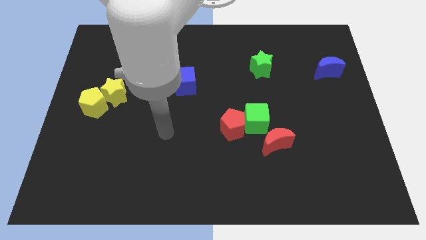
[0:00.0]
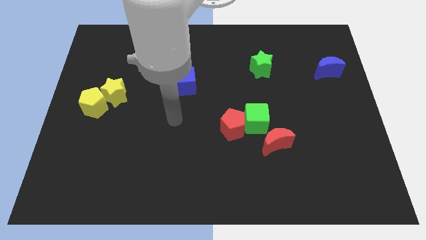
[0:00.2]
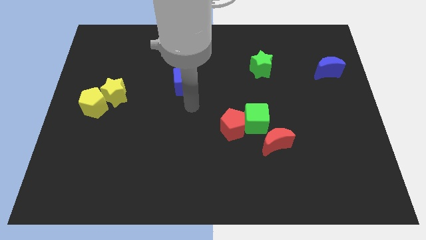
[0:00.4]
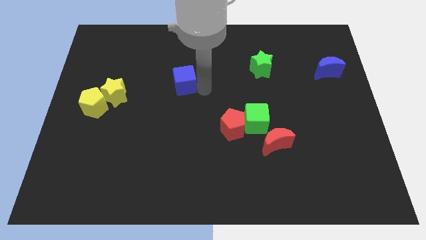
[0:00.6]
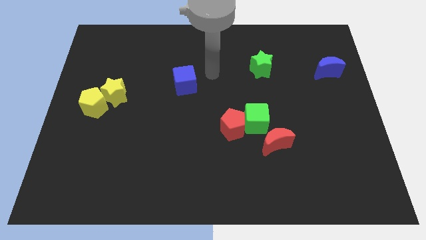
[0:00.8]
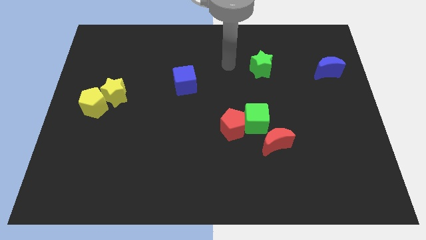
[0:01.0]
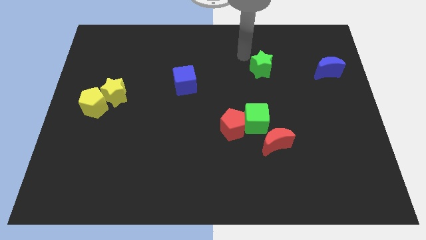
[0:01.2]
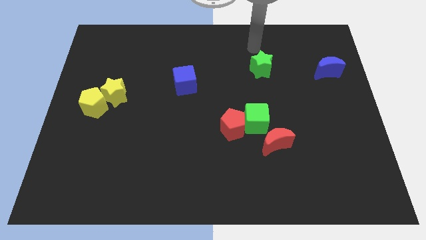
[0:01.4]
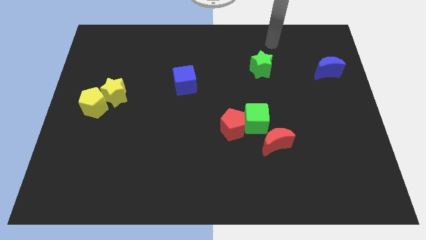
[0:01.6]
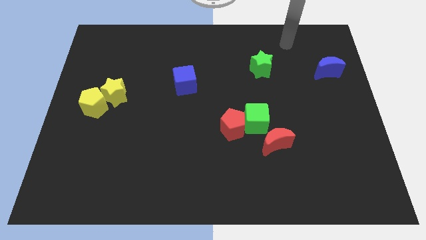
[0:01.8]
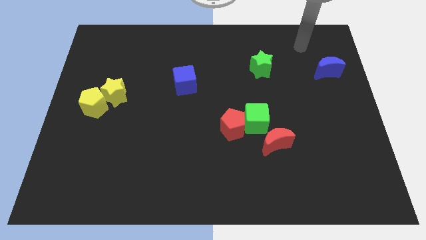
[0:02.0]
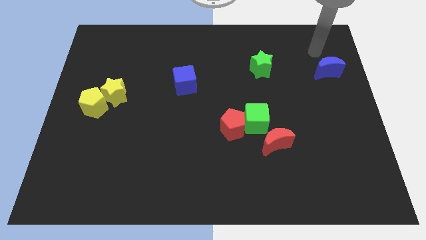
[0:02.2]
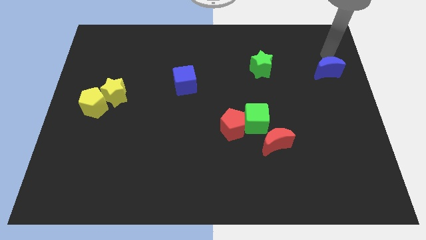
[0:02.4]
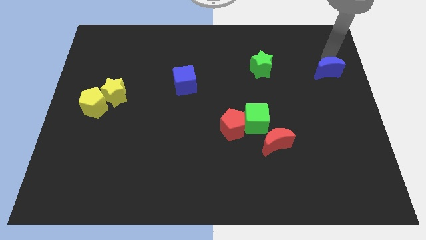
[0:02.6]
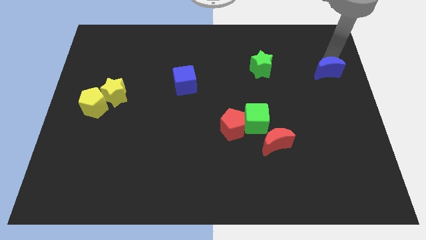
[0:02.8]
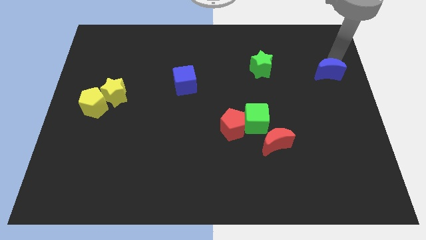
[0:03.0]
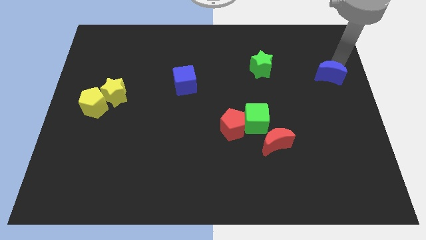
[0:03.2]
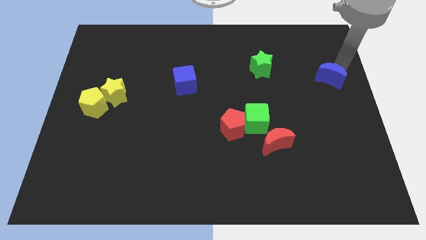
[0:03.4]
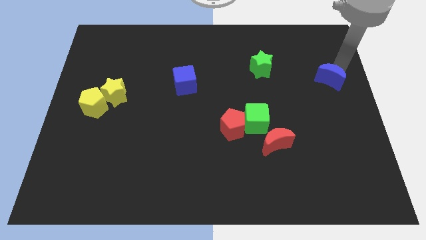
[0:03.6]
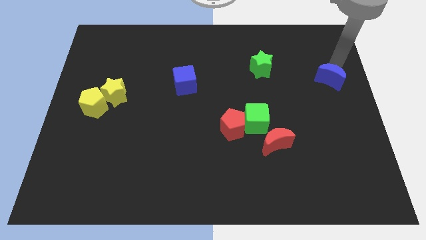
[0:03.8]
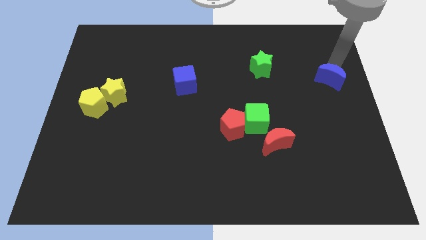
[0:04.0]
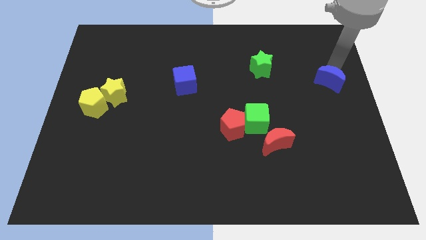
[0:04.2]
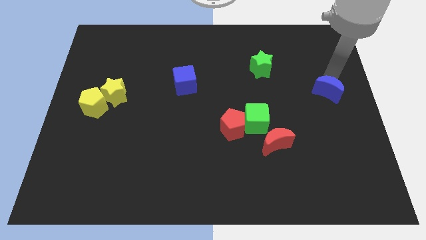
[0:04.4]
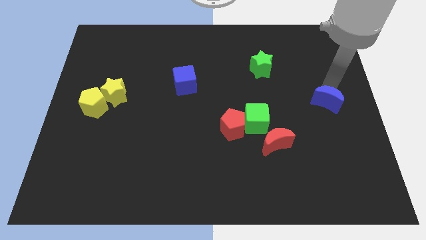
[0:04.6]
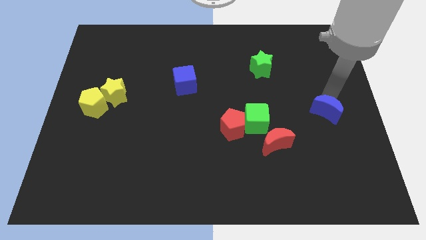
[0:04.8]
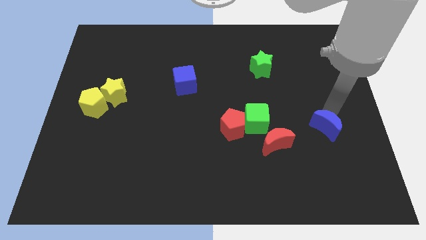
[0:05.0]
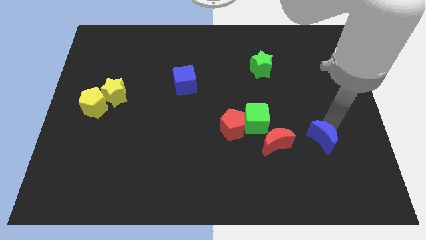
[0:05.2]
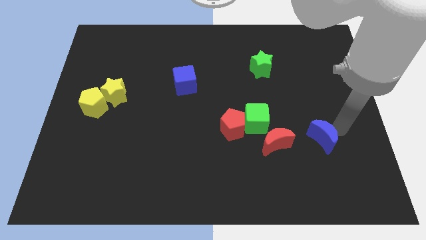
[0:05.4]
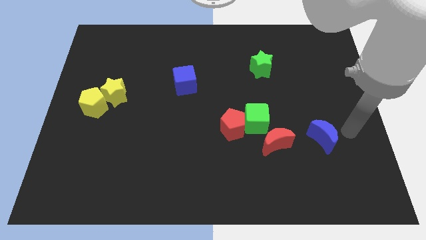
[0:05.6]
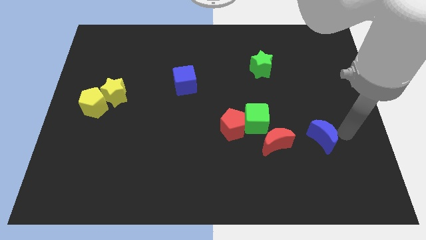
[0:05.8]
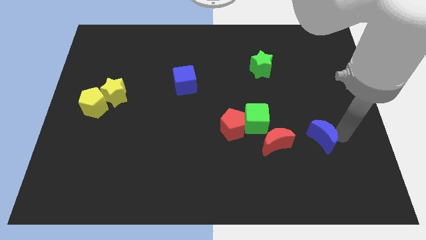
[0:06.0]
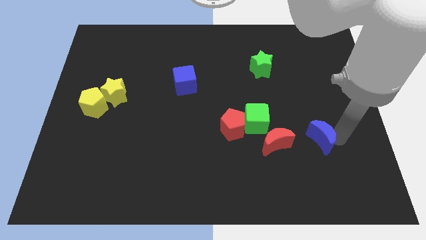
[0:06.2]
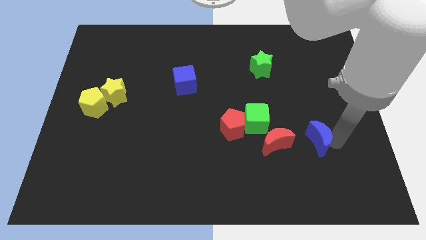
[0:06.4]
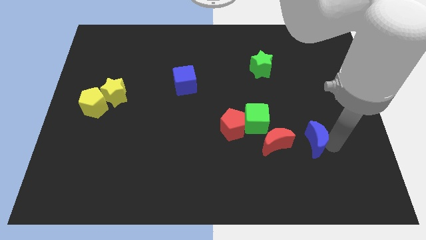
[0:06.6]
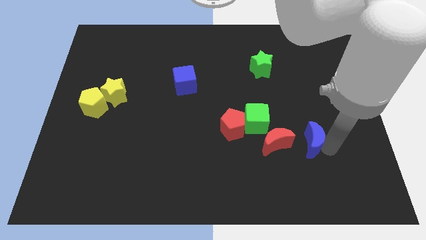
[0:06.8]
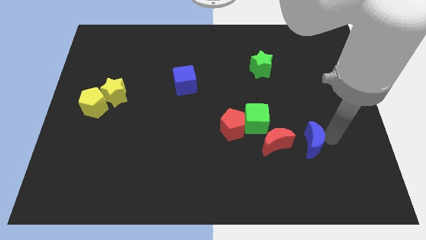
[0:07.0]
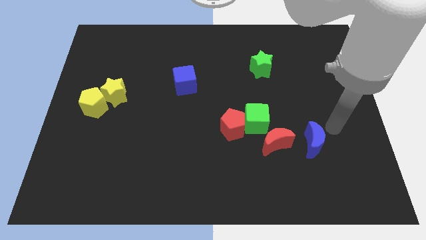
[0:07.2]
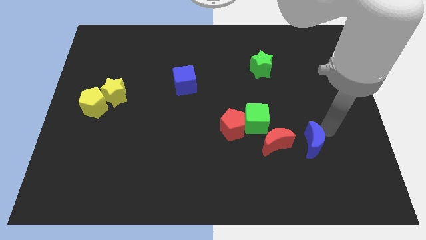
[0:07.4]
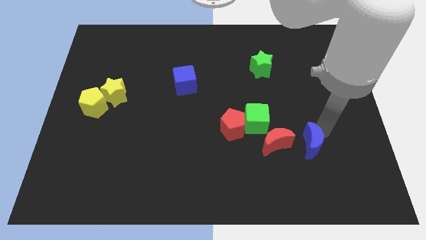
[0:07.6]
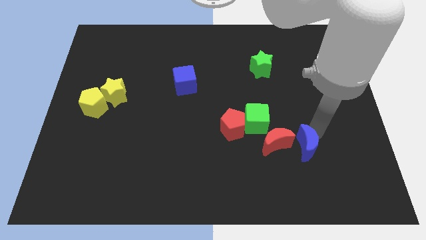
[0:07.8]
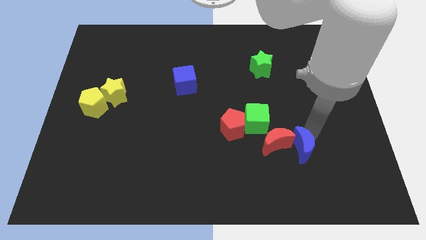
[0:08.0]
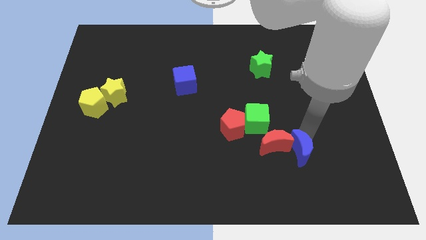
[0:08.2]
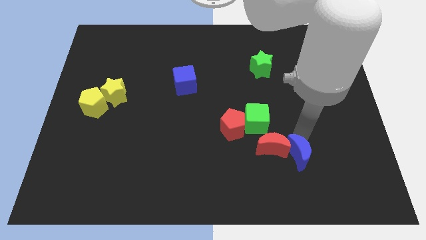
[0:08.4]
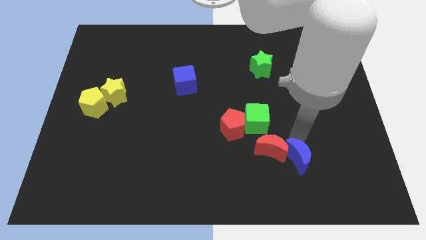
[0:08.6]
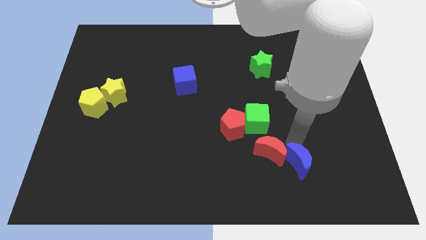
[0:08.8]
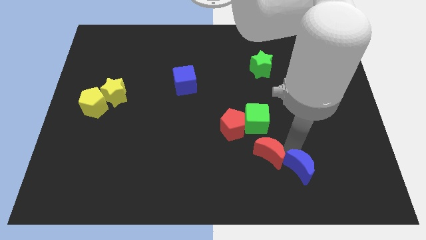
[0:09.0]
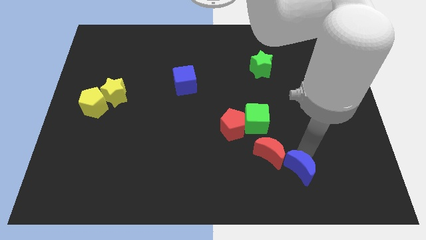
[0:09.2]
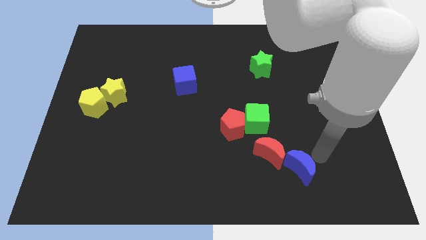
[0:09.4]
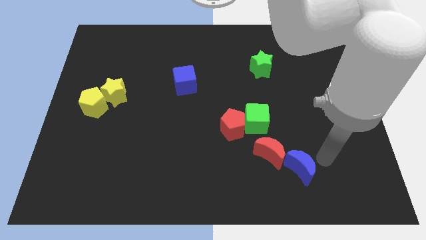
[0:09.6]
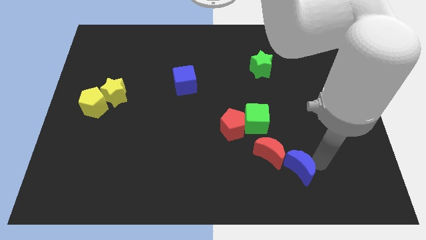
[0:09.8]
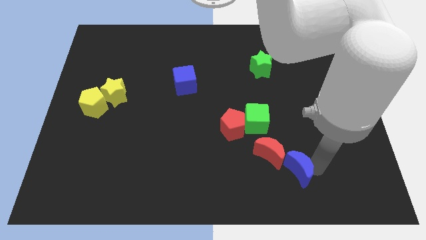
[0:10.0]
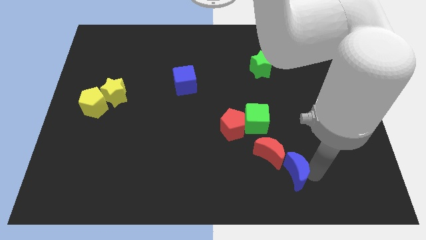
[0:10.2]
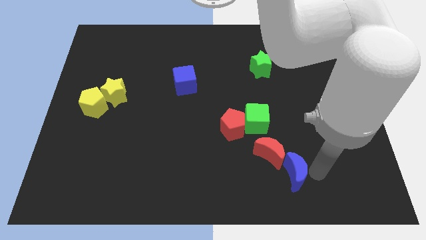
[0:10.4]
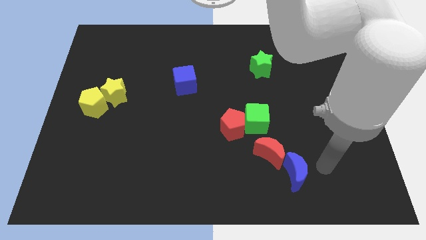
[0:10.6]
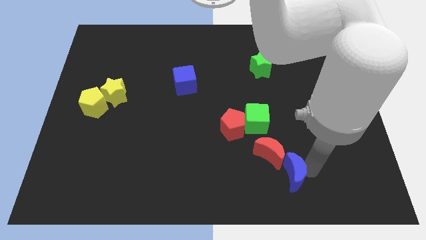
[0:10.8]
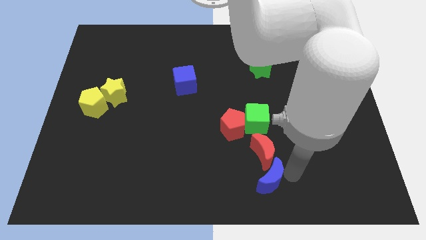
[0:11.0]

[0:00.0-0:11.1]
slide the blue moon to the bottom side

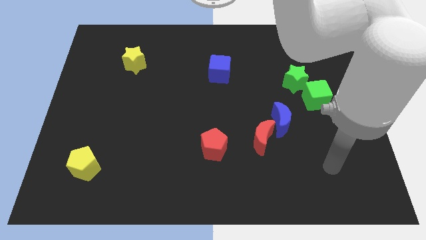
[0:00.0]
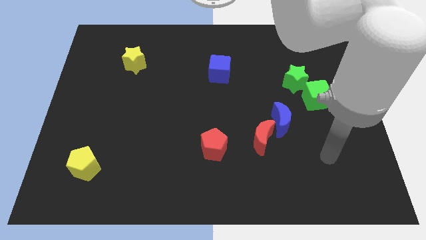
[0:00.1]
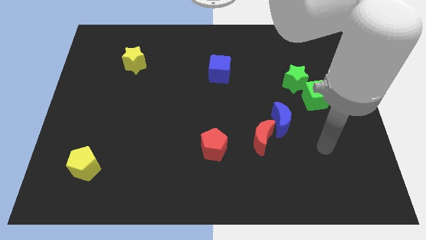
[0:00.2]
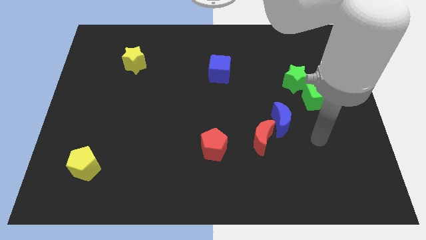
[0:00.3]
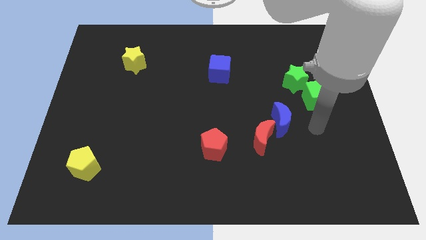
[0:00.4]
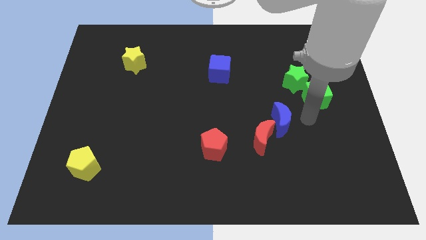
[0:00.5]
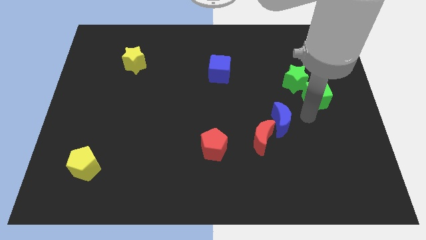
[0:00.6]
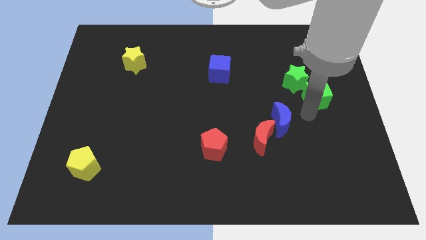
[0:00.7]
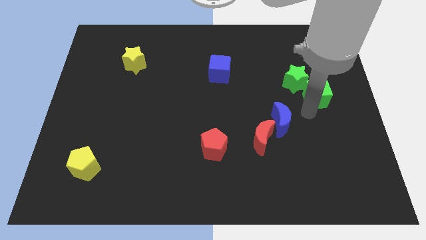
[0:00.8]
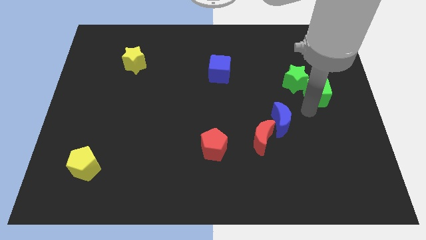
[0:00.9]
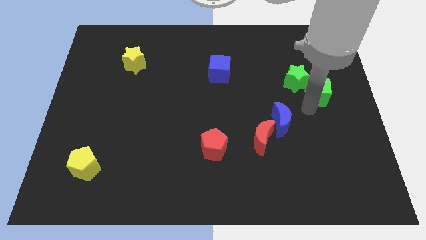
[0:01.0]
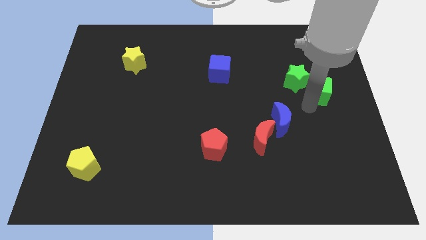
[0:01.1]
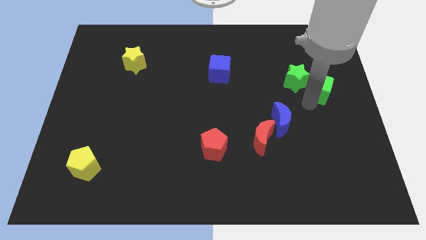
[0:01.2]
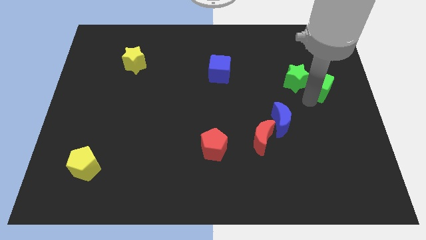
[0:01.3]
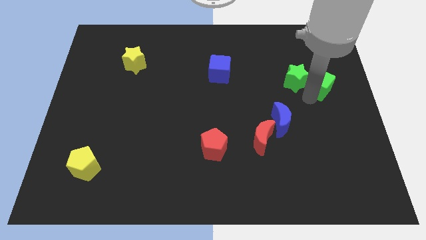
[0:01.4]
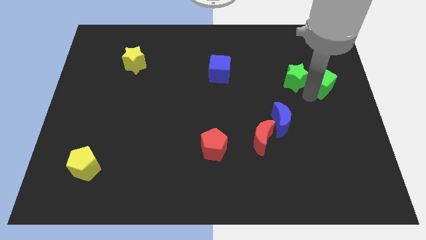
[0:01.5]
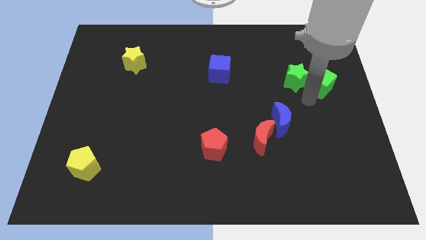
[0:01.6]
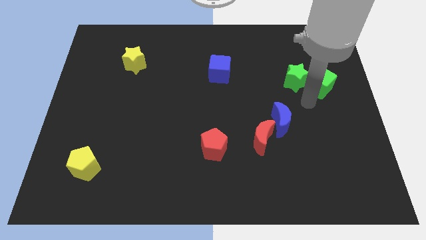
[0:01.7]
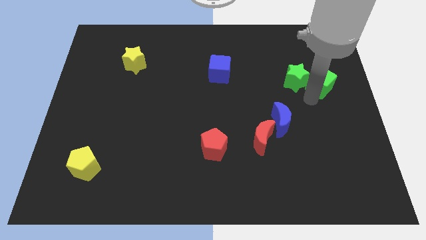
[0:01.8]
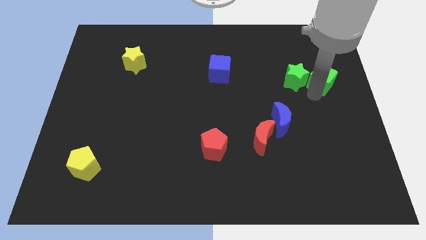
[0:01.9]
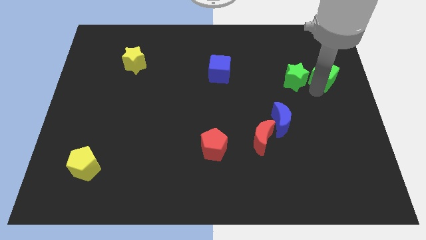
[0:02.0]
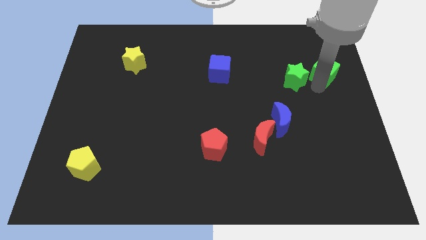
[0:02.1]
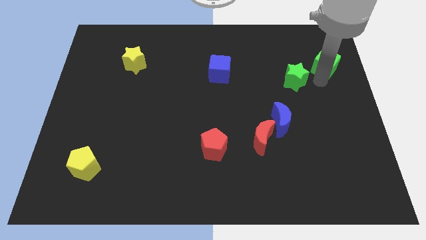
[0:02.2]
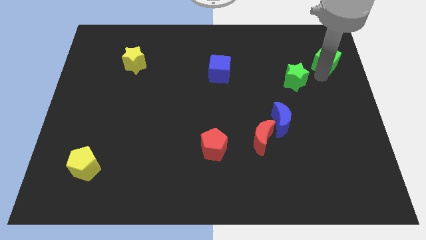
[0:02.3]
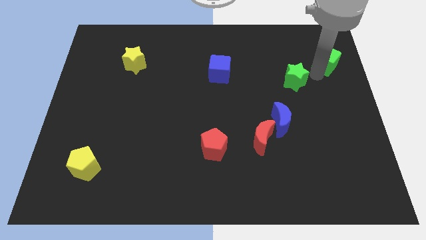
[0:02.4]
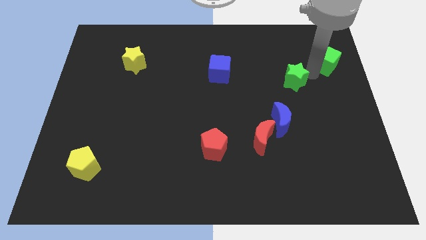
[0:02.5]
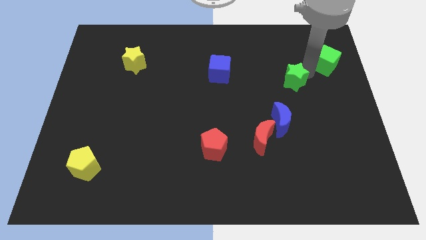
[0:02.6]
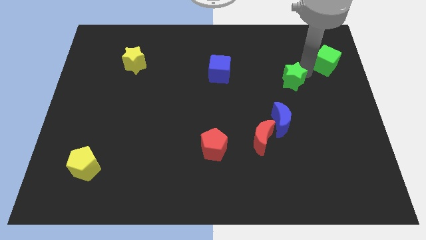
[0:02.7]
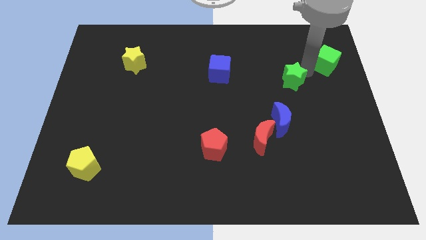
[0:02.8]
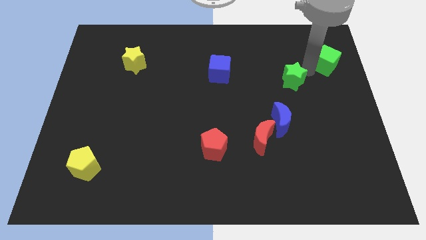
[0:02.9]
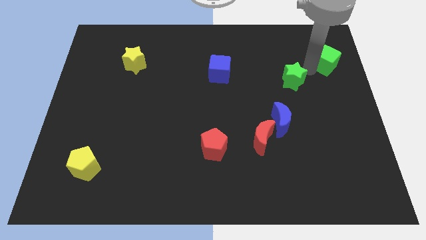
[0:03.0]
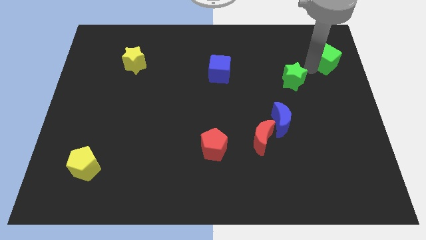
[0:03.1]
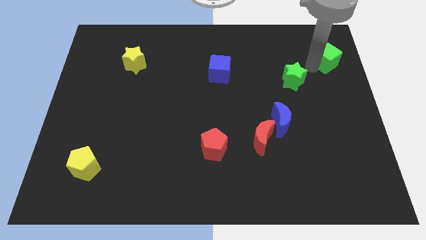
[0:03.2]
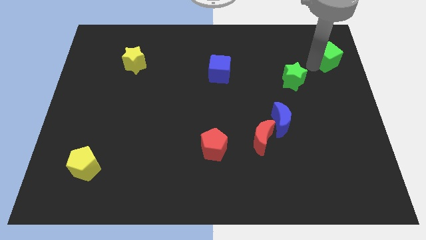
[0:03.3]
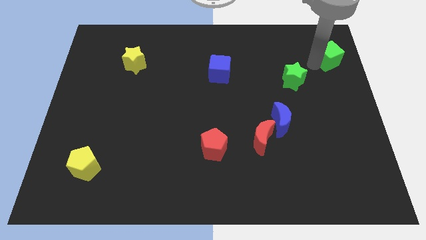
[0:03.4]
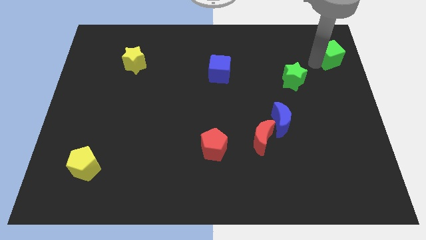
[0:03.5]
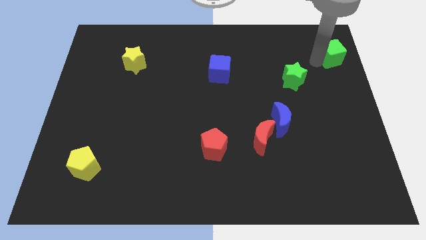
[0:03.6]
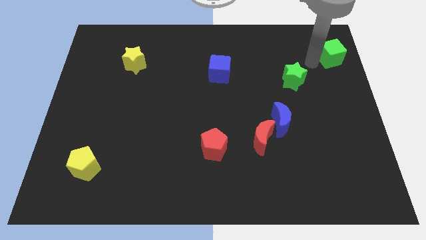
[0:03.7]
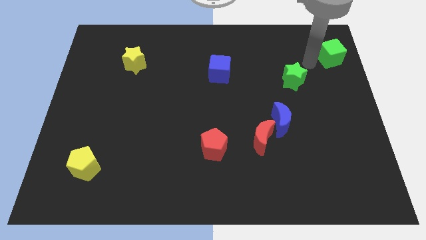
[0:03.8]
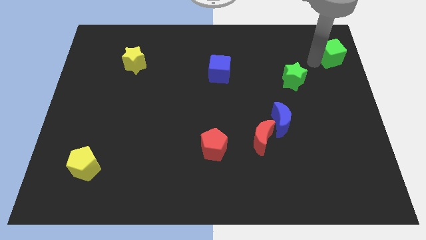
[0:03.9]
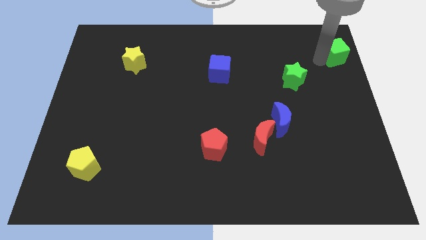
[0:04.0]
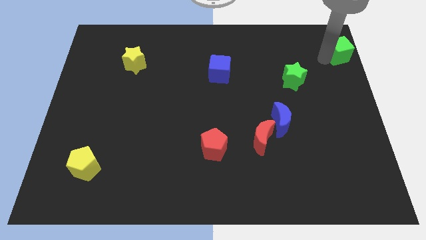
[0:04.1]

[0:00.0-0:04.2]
put the green cube to the top right
